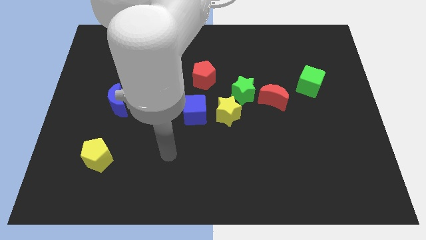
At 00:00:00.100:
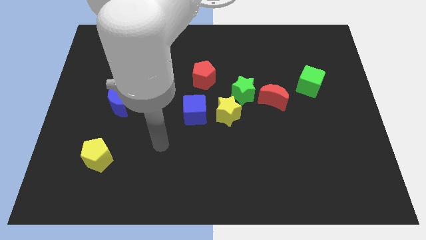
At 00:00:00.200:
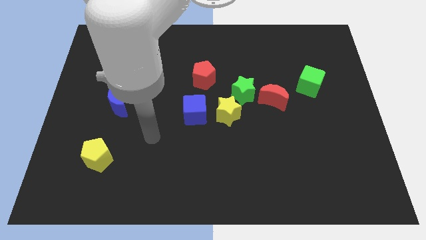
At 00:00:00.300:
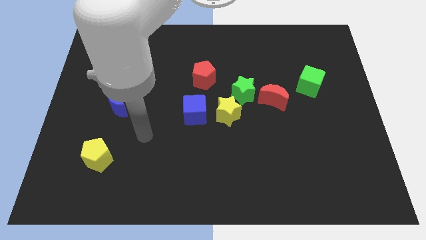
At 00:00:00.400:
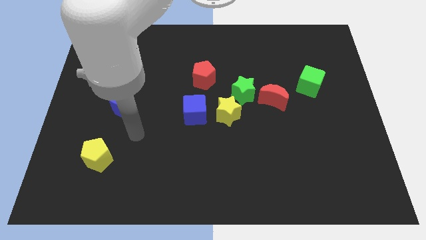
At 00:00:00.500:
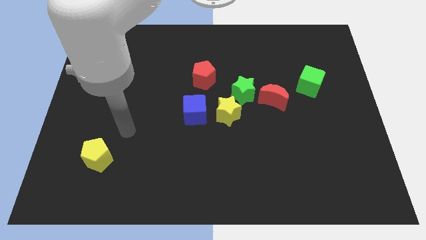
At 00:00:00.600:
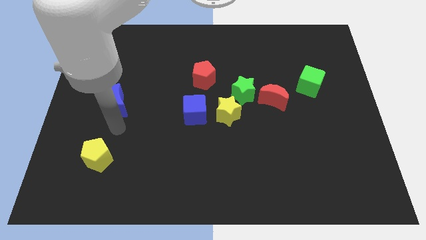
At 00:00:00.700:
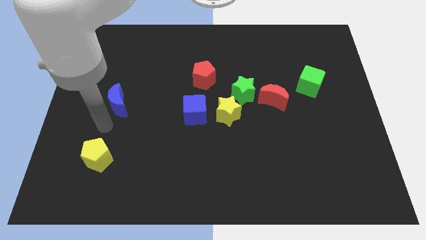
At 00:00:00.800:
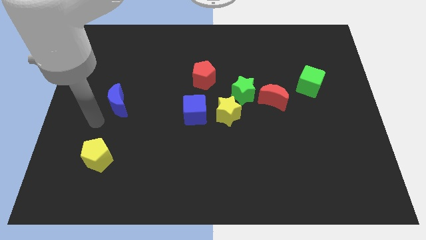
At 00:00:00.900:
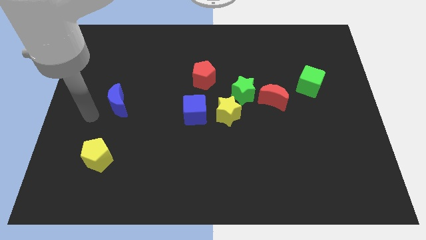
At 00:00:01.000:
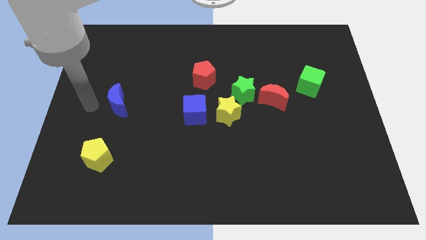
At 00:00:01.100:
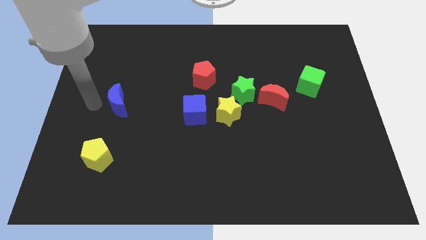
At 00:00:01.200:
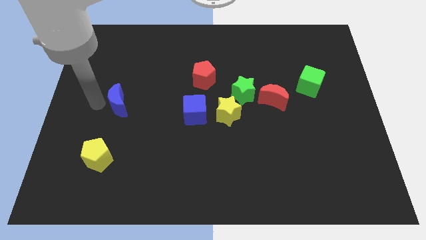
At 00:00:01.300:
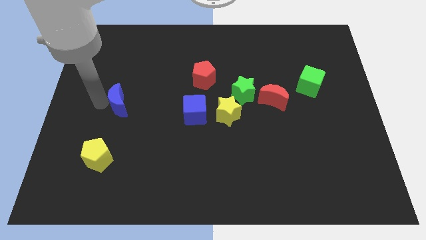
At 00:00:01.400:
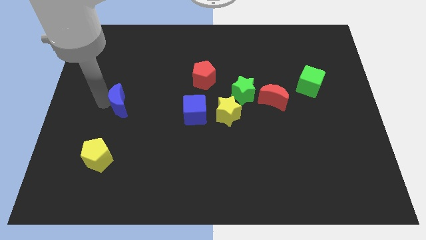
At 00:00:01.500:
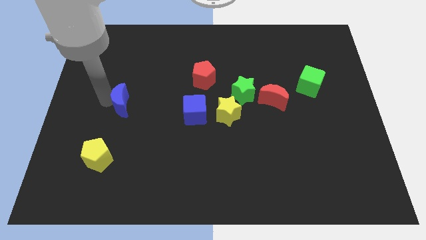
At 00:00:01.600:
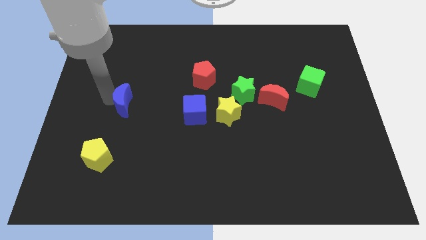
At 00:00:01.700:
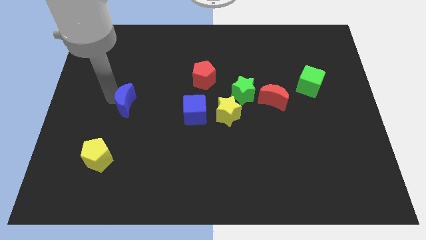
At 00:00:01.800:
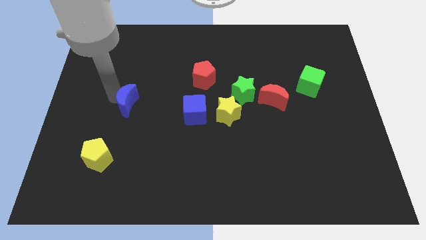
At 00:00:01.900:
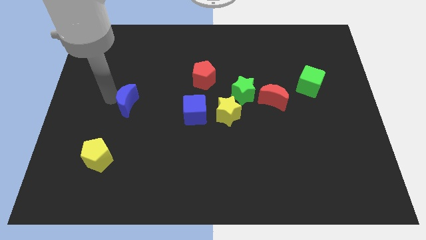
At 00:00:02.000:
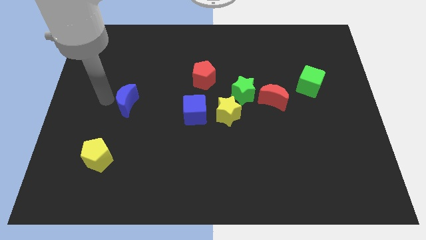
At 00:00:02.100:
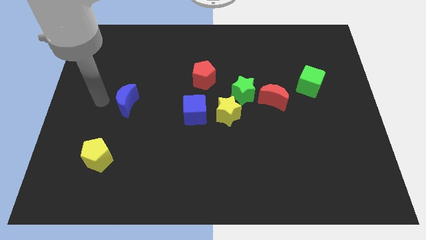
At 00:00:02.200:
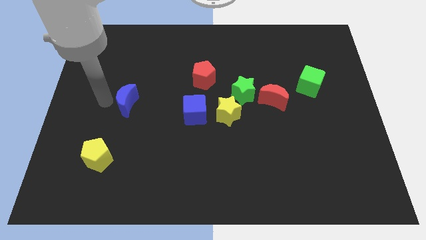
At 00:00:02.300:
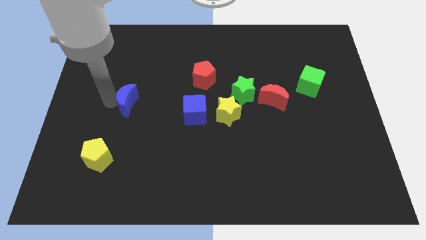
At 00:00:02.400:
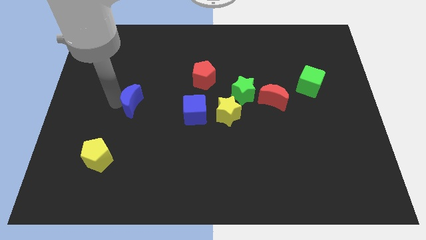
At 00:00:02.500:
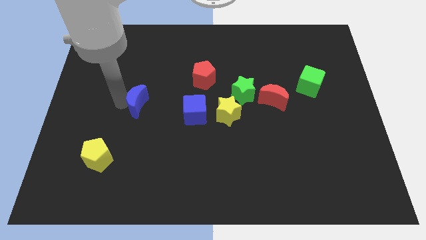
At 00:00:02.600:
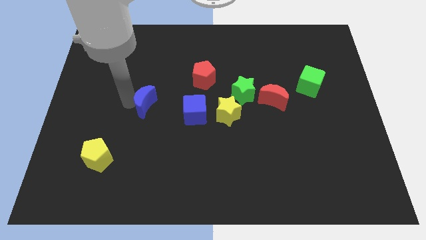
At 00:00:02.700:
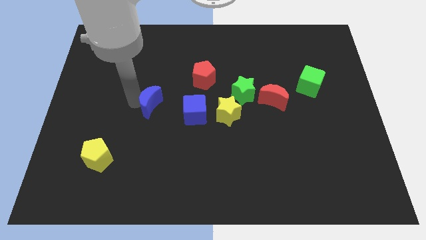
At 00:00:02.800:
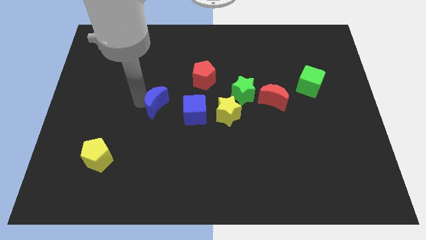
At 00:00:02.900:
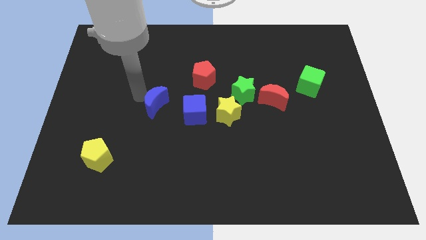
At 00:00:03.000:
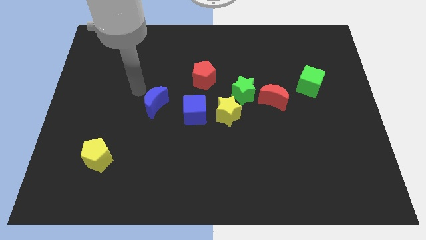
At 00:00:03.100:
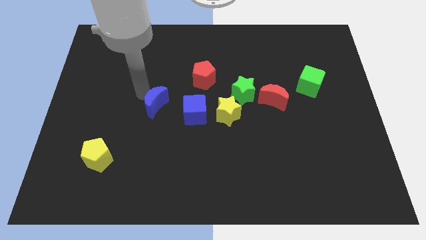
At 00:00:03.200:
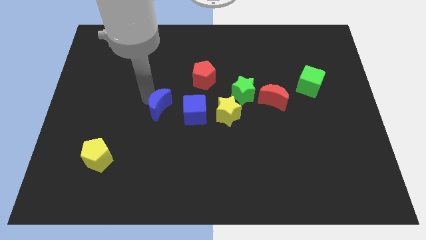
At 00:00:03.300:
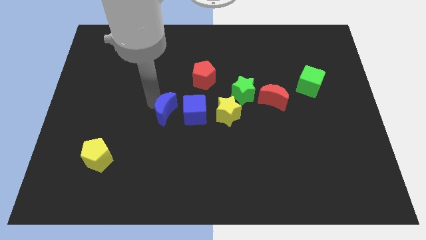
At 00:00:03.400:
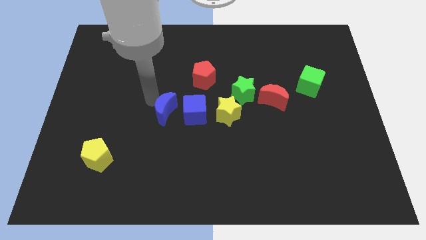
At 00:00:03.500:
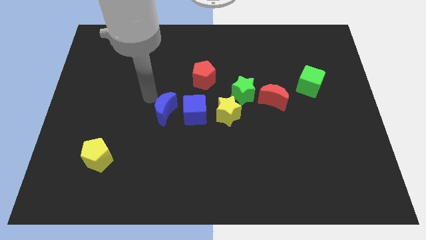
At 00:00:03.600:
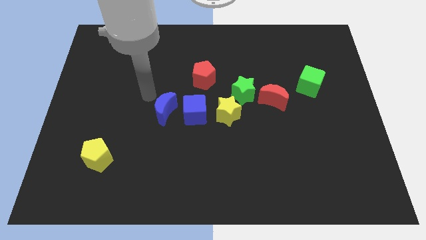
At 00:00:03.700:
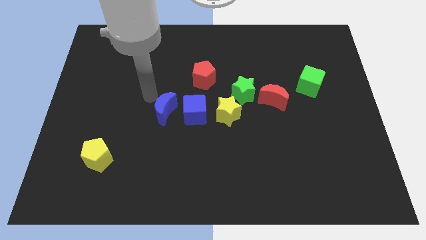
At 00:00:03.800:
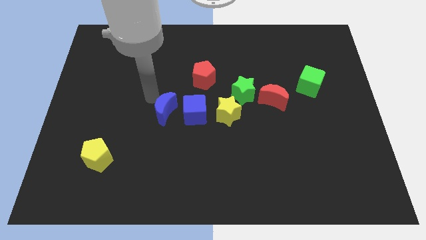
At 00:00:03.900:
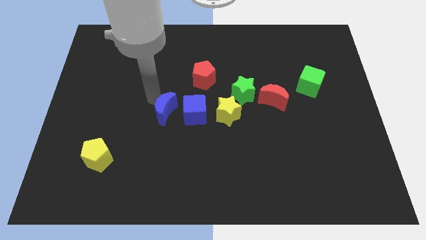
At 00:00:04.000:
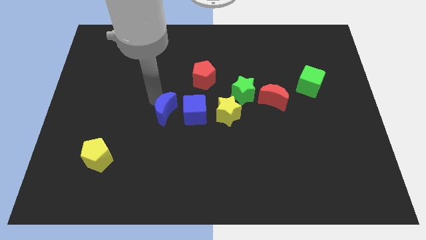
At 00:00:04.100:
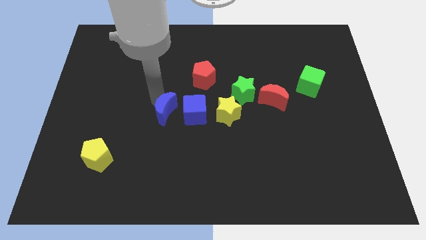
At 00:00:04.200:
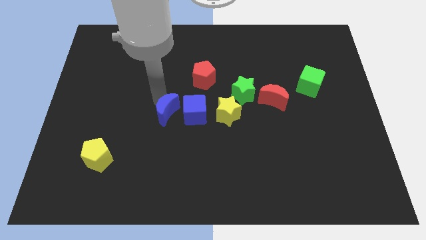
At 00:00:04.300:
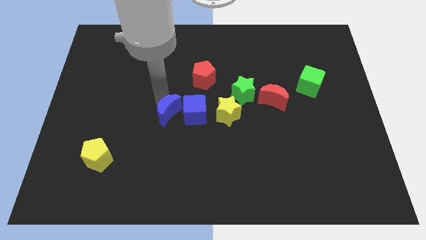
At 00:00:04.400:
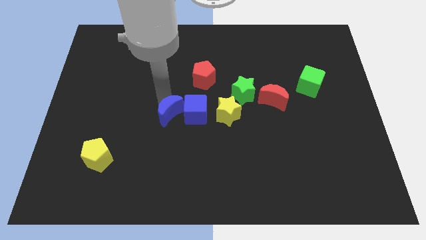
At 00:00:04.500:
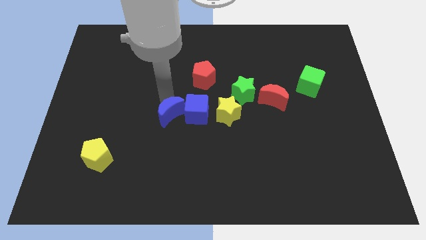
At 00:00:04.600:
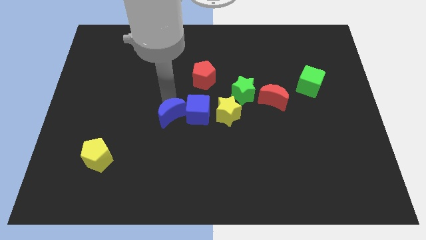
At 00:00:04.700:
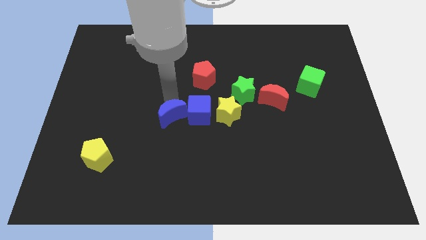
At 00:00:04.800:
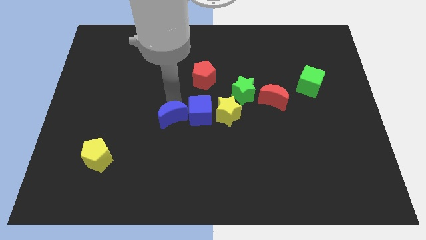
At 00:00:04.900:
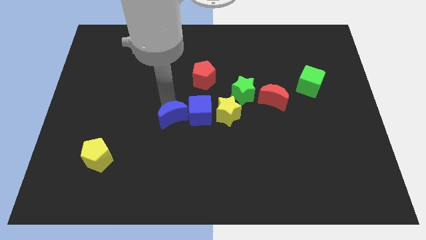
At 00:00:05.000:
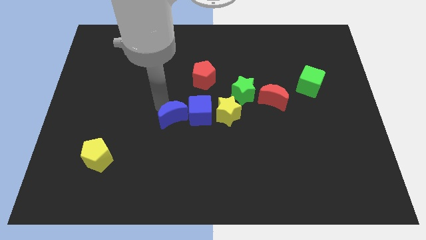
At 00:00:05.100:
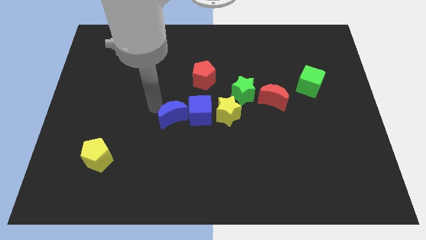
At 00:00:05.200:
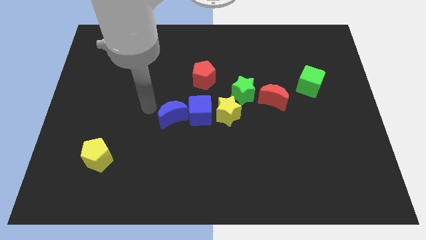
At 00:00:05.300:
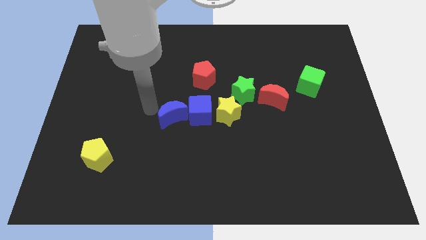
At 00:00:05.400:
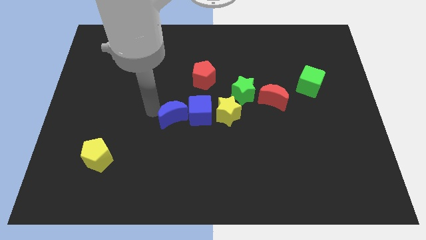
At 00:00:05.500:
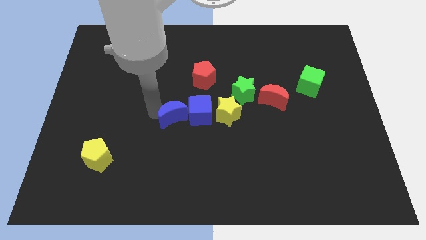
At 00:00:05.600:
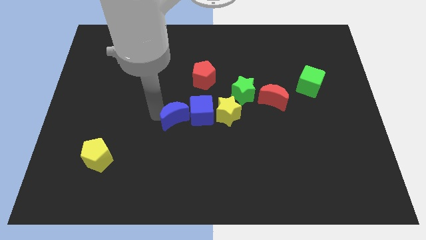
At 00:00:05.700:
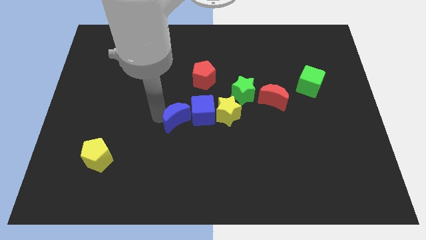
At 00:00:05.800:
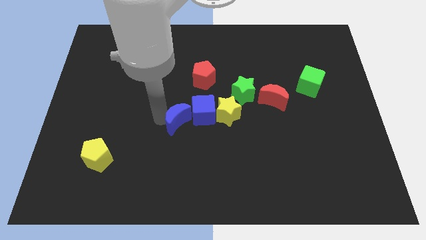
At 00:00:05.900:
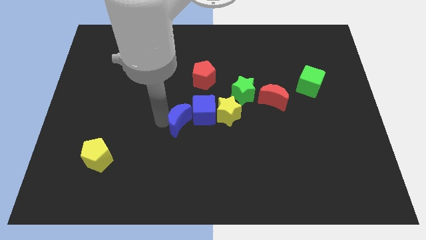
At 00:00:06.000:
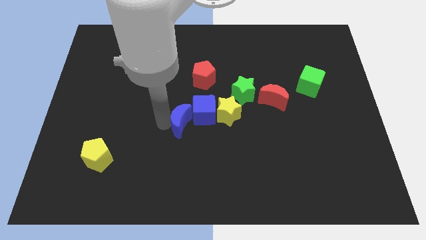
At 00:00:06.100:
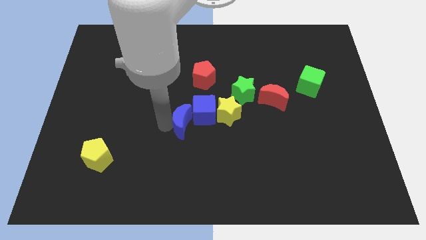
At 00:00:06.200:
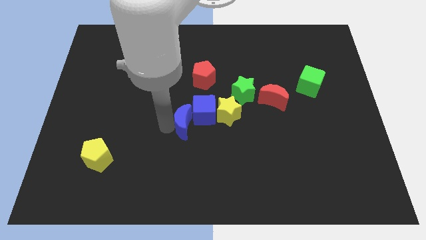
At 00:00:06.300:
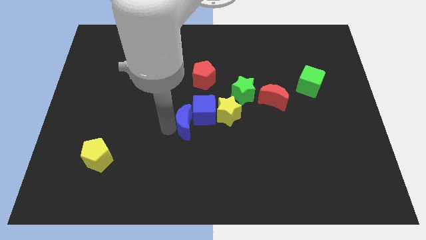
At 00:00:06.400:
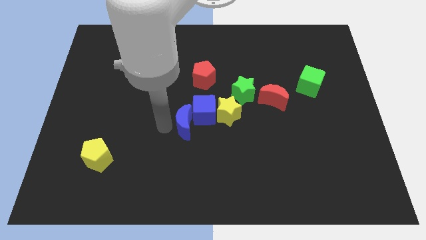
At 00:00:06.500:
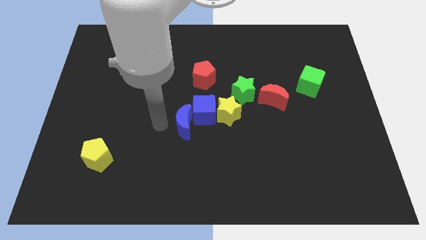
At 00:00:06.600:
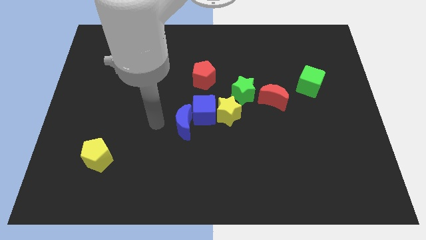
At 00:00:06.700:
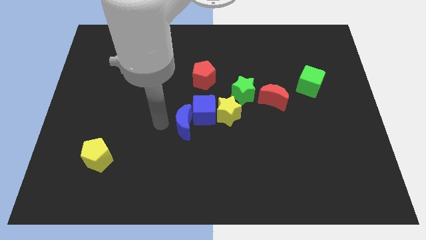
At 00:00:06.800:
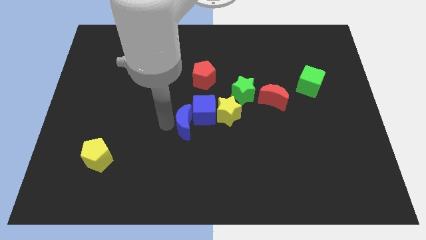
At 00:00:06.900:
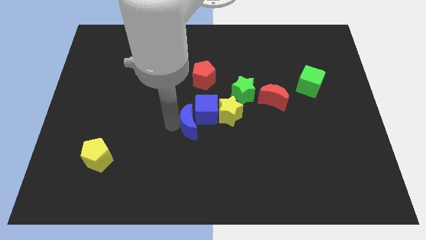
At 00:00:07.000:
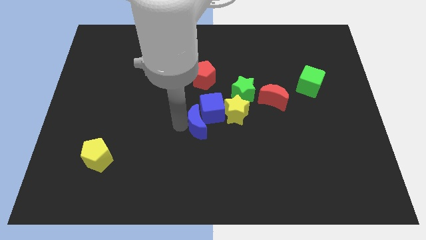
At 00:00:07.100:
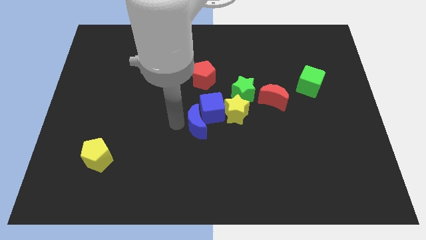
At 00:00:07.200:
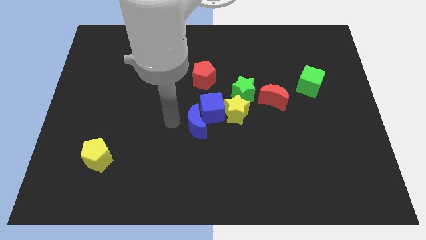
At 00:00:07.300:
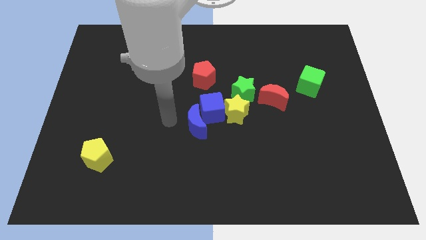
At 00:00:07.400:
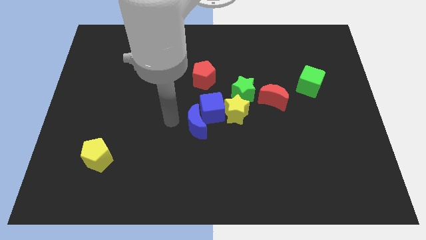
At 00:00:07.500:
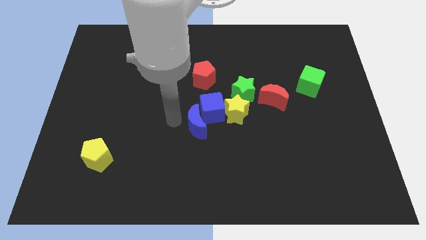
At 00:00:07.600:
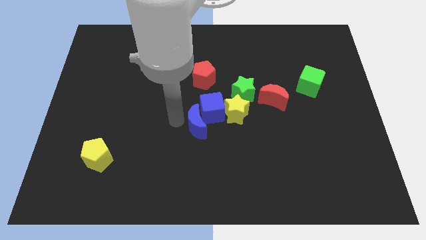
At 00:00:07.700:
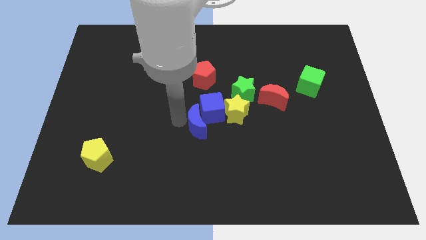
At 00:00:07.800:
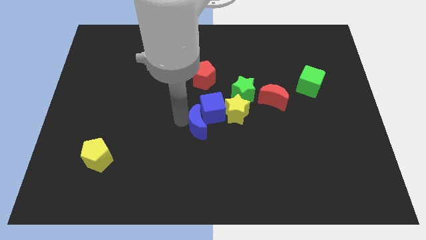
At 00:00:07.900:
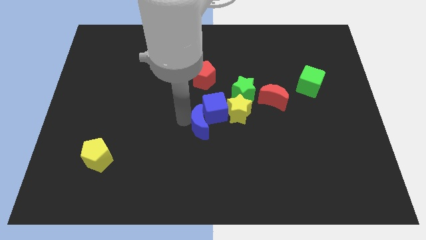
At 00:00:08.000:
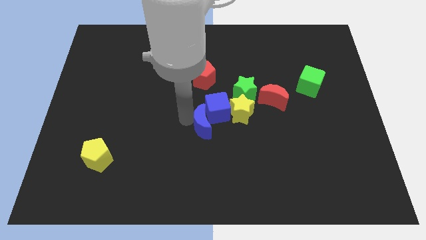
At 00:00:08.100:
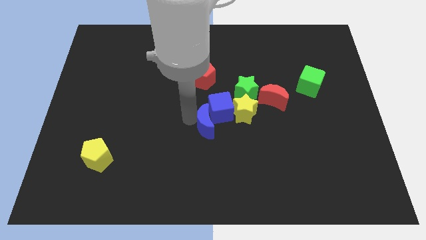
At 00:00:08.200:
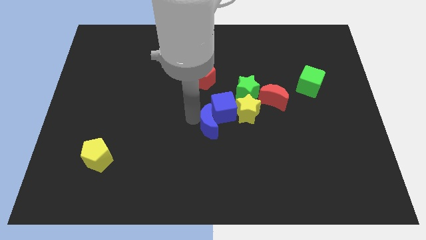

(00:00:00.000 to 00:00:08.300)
push the blue moon right
